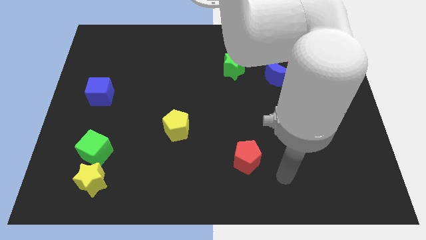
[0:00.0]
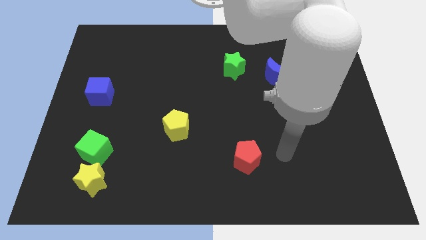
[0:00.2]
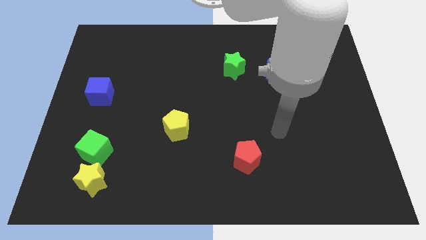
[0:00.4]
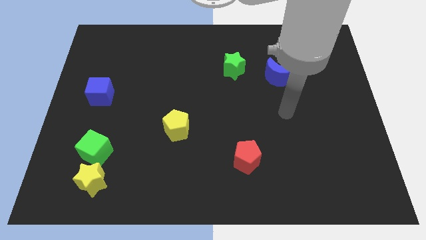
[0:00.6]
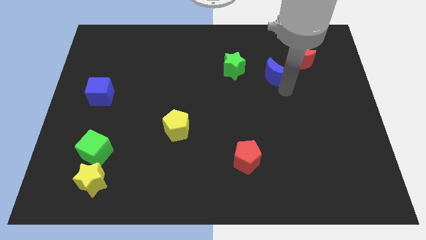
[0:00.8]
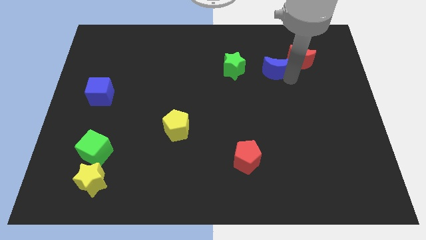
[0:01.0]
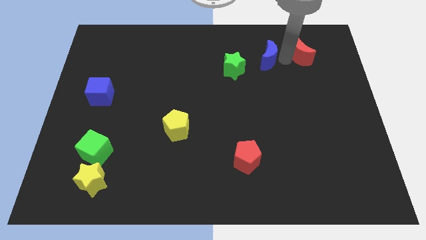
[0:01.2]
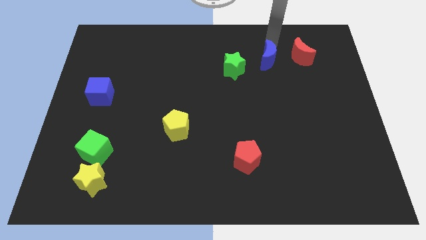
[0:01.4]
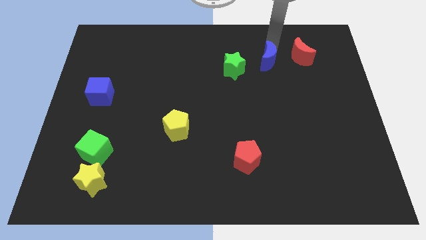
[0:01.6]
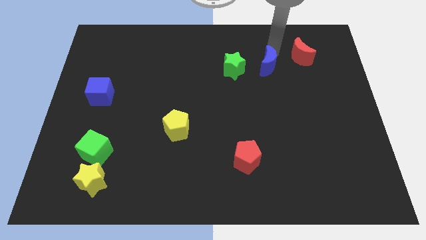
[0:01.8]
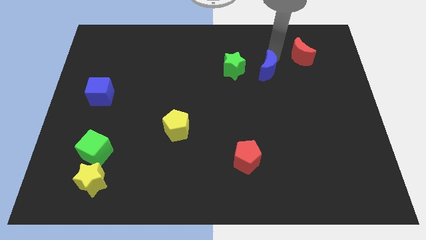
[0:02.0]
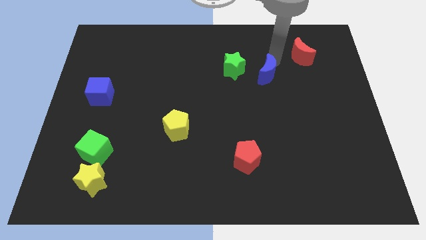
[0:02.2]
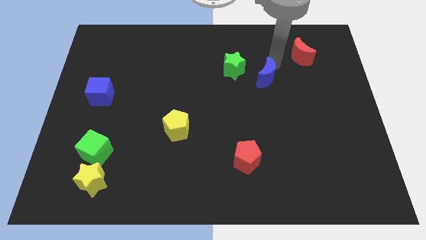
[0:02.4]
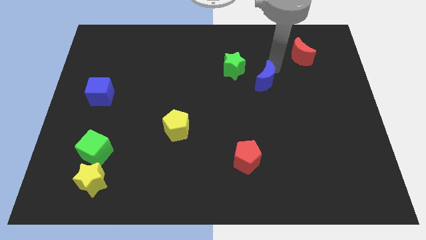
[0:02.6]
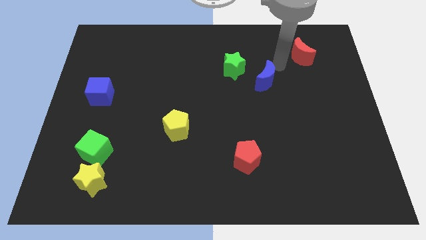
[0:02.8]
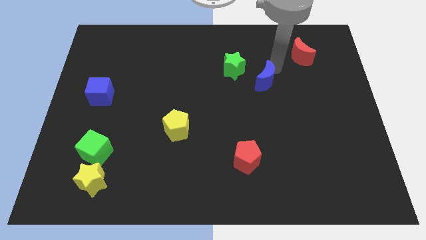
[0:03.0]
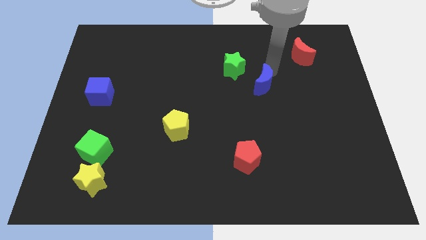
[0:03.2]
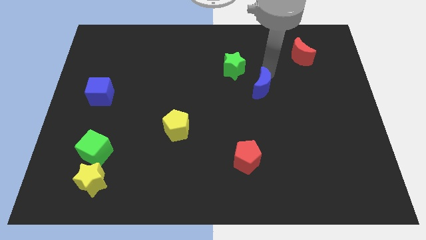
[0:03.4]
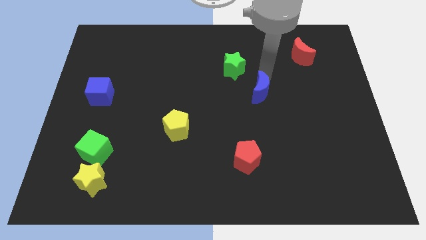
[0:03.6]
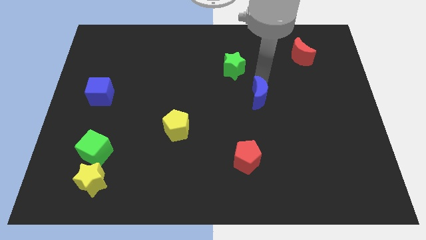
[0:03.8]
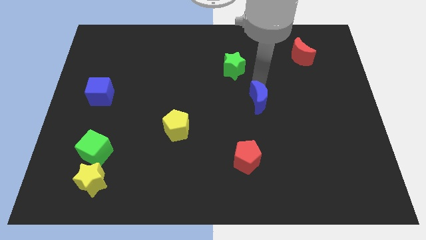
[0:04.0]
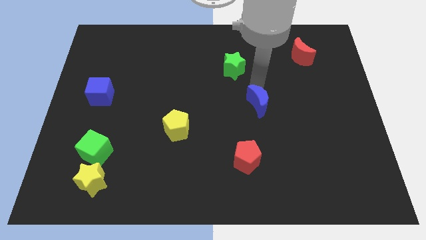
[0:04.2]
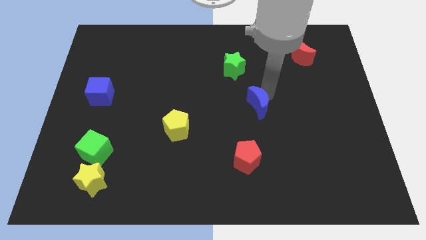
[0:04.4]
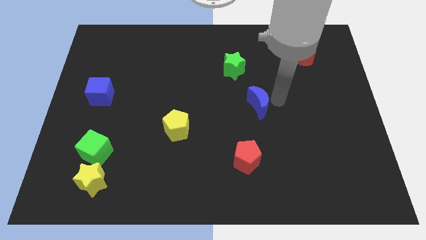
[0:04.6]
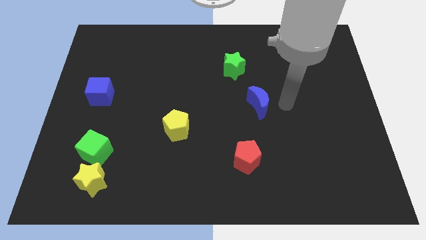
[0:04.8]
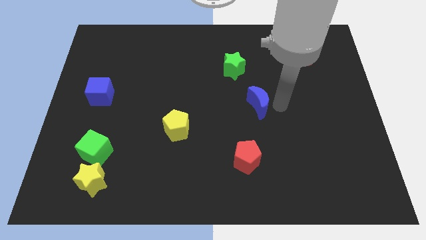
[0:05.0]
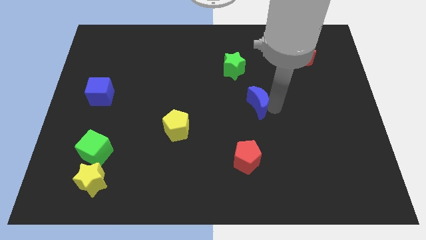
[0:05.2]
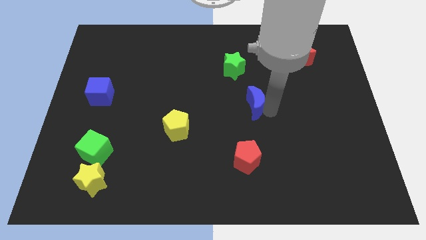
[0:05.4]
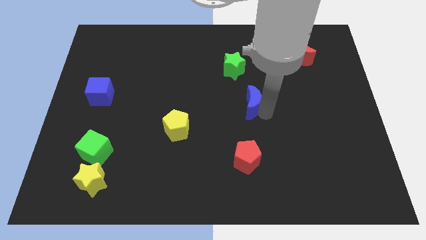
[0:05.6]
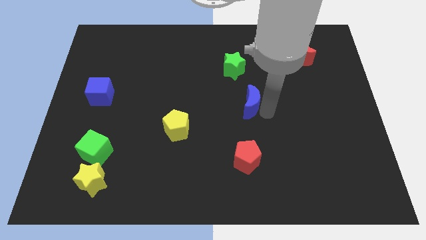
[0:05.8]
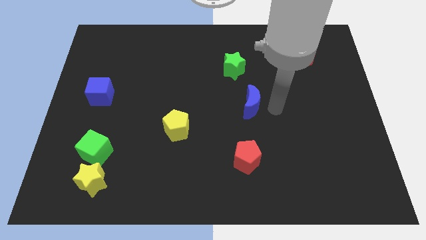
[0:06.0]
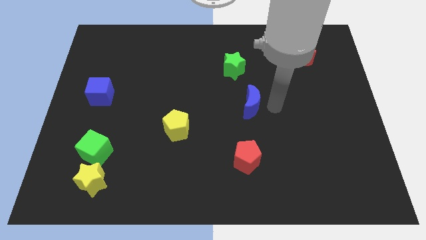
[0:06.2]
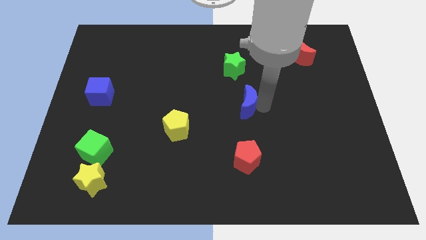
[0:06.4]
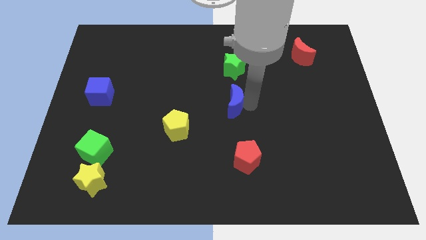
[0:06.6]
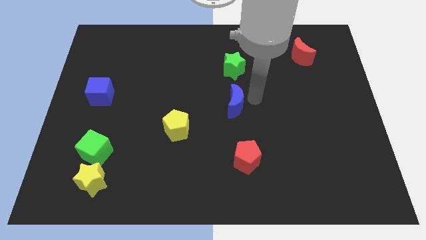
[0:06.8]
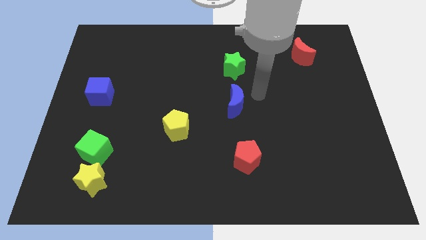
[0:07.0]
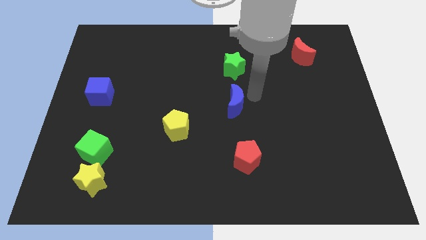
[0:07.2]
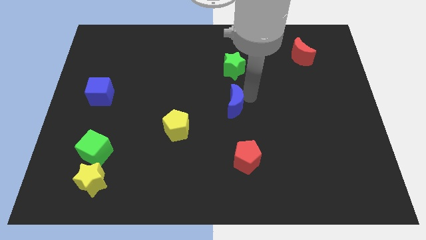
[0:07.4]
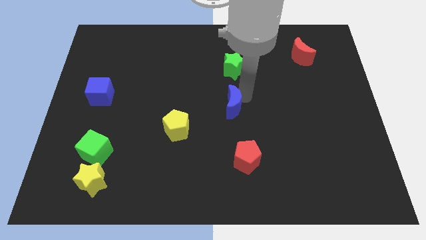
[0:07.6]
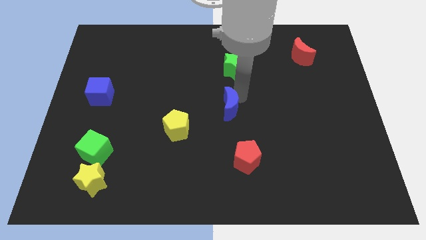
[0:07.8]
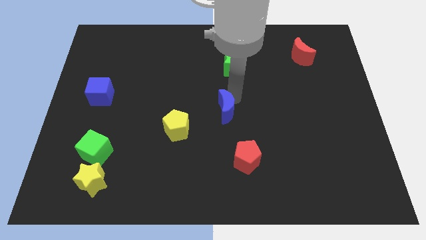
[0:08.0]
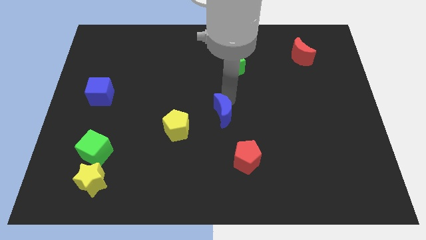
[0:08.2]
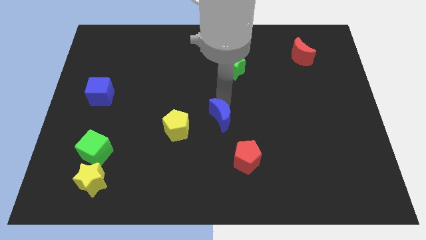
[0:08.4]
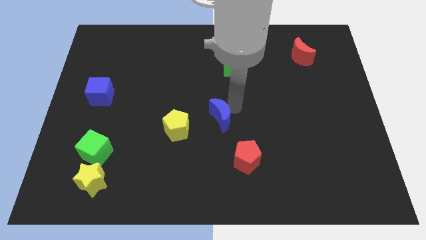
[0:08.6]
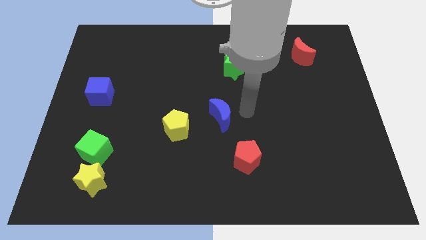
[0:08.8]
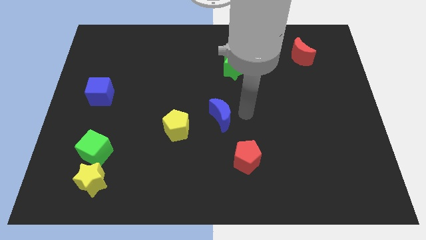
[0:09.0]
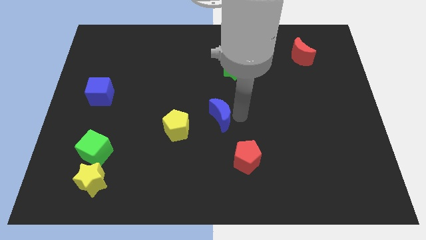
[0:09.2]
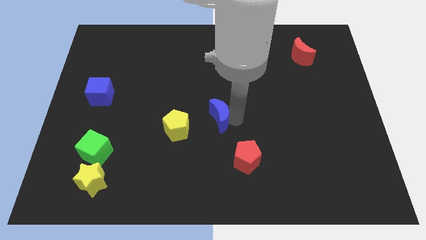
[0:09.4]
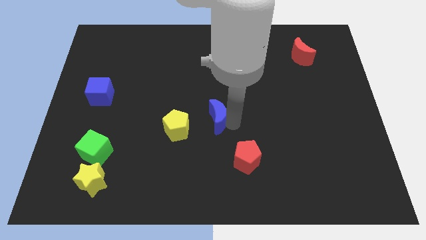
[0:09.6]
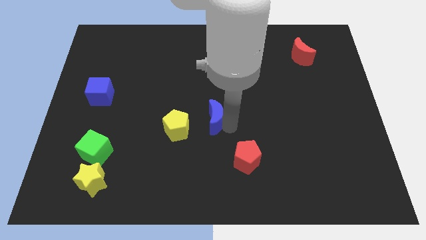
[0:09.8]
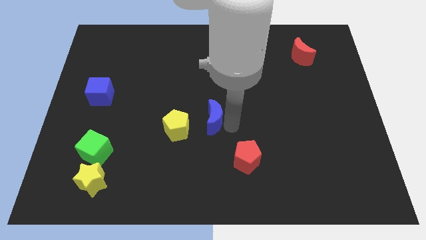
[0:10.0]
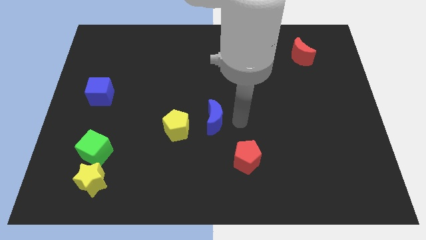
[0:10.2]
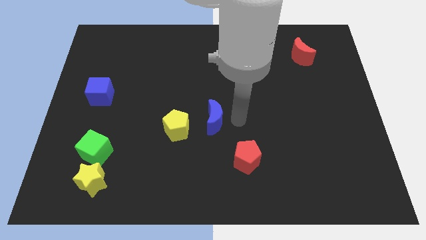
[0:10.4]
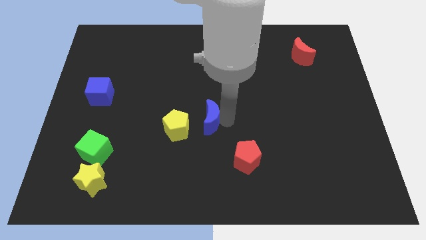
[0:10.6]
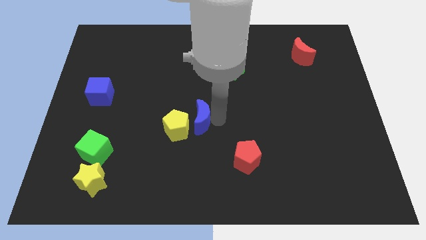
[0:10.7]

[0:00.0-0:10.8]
put the blue moon close to the yellow pentagon

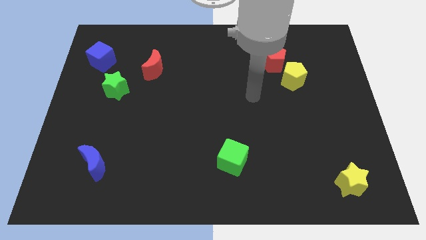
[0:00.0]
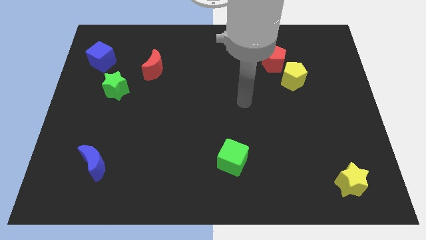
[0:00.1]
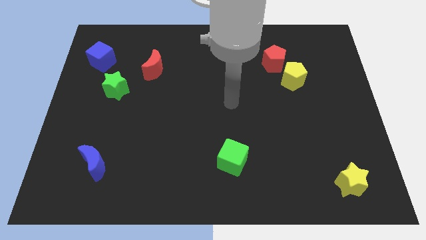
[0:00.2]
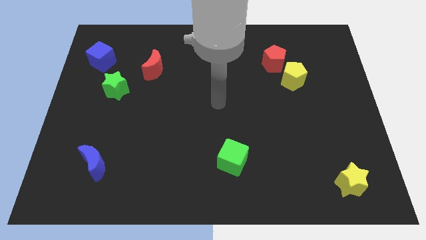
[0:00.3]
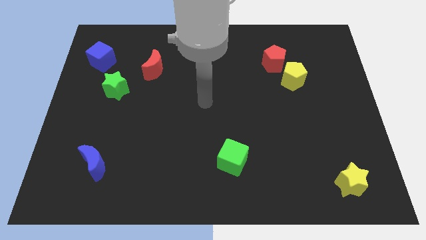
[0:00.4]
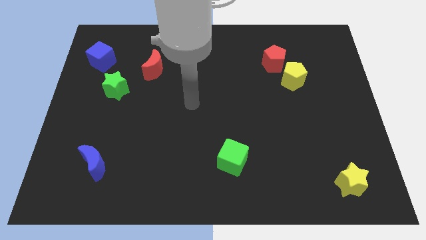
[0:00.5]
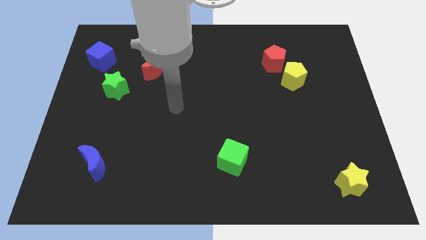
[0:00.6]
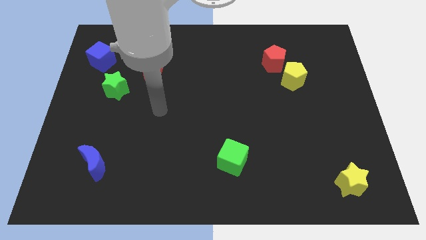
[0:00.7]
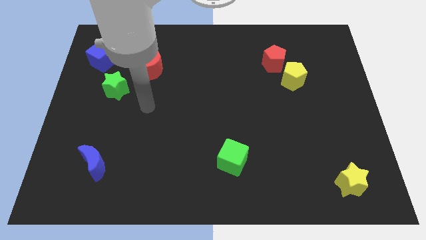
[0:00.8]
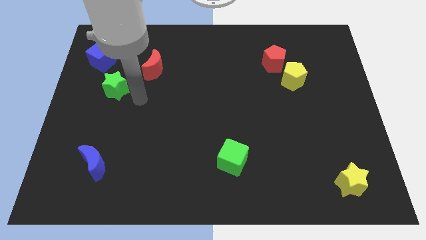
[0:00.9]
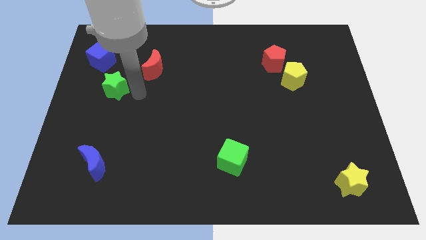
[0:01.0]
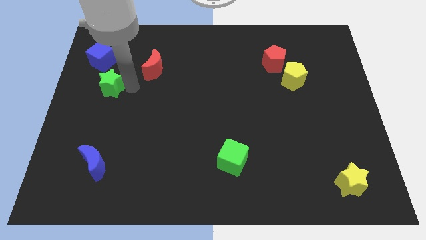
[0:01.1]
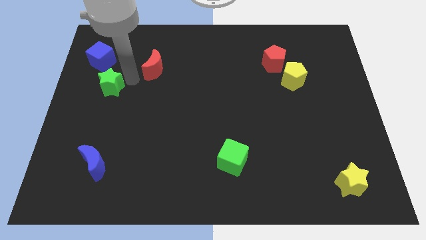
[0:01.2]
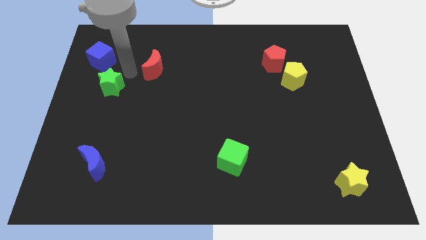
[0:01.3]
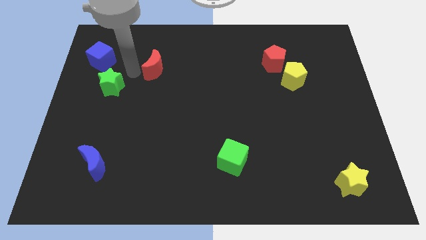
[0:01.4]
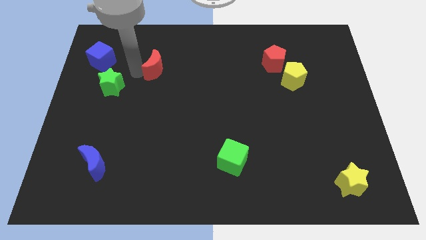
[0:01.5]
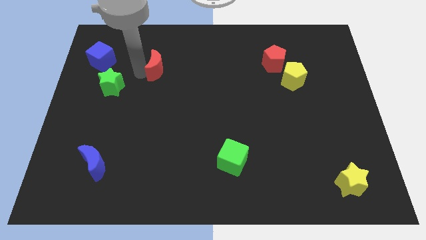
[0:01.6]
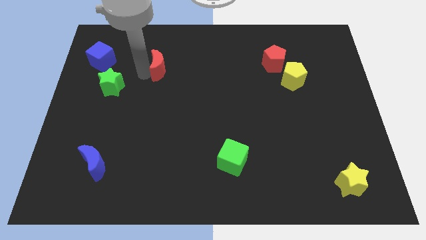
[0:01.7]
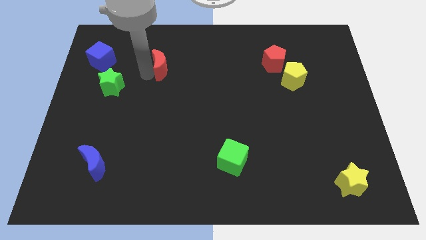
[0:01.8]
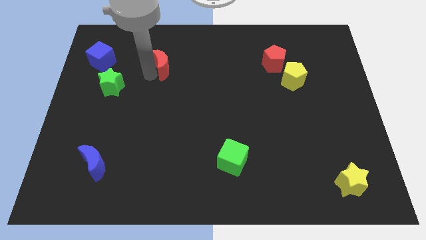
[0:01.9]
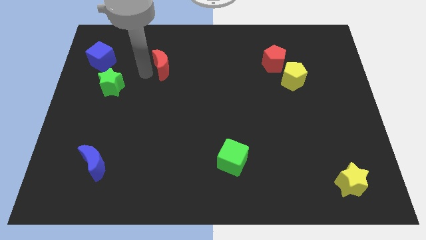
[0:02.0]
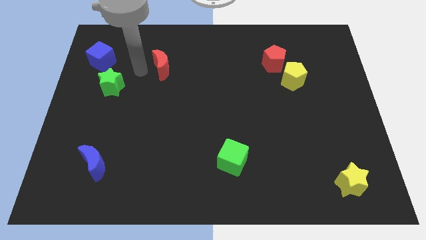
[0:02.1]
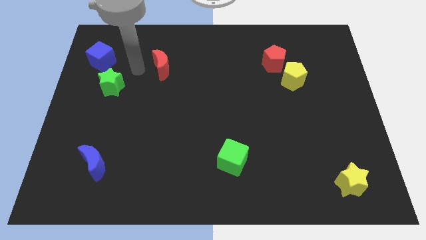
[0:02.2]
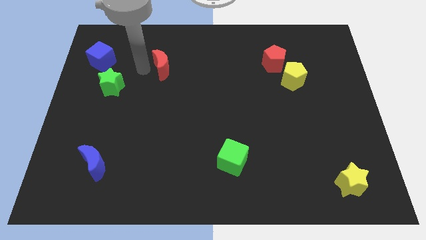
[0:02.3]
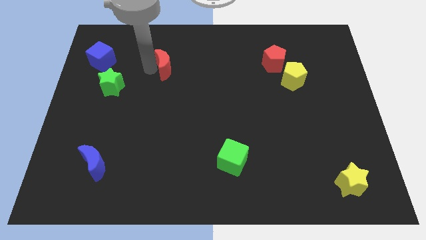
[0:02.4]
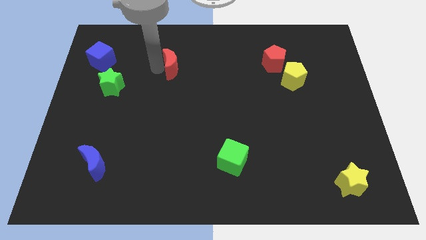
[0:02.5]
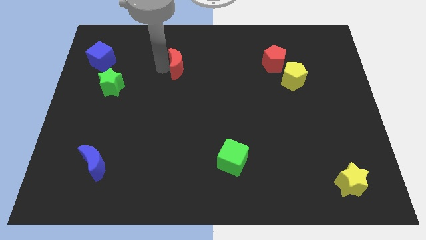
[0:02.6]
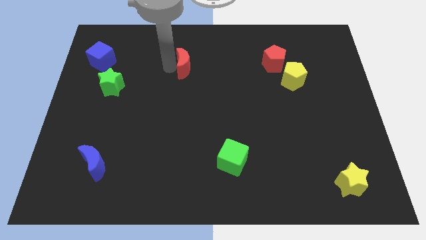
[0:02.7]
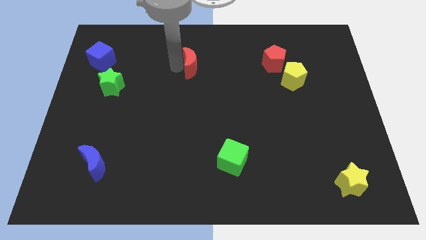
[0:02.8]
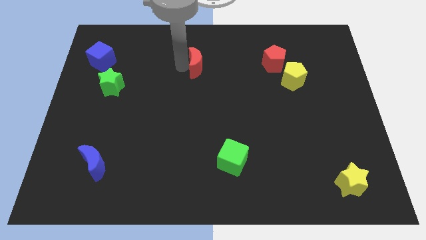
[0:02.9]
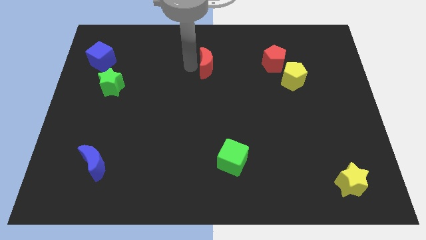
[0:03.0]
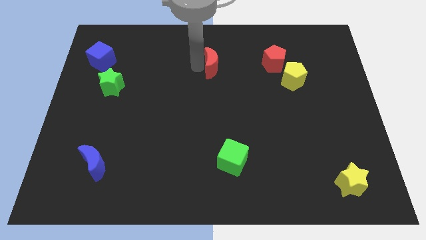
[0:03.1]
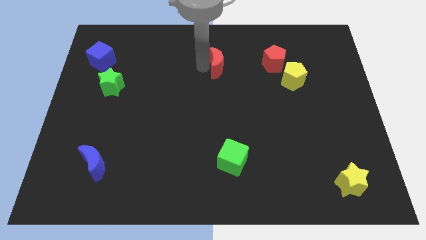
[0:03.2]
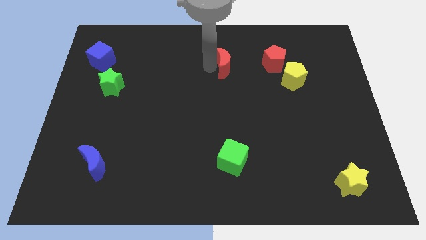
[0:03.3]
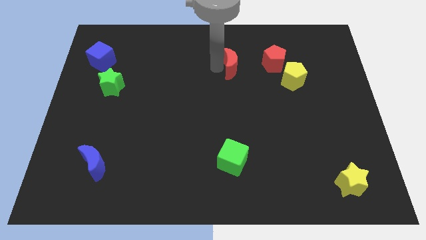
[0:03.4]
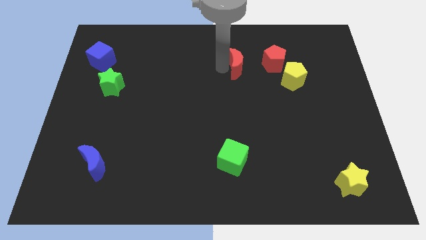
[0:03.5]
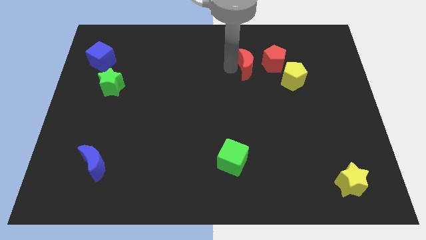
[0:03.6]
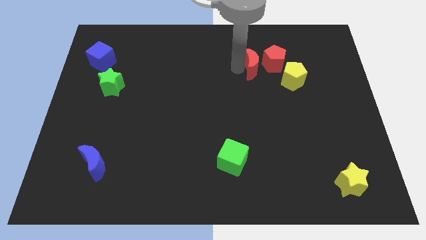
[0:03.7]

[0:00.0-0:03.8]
move the red moon to the red pentagon
